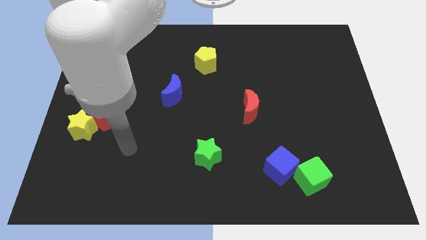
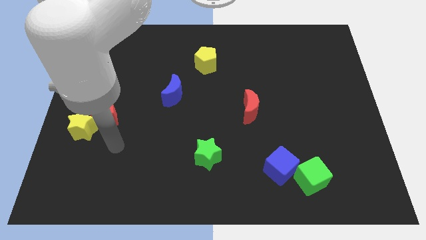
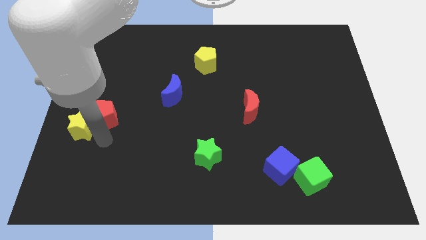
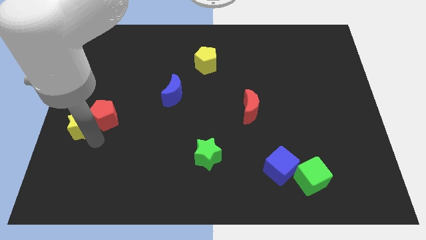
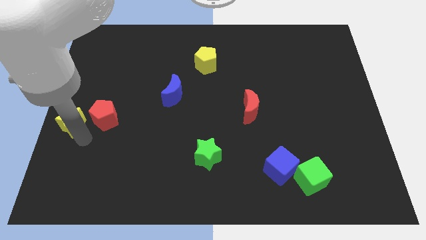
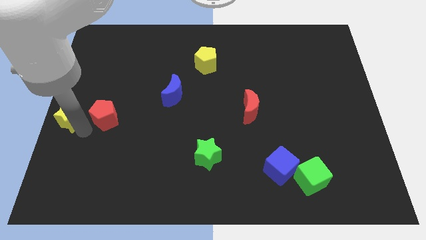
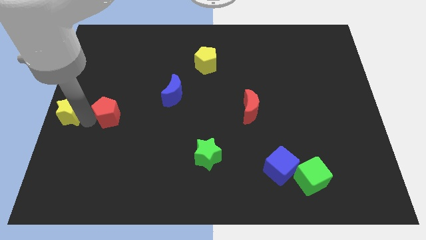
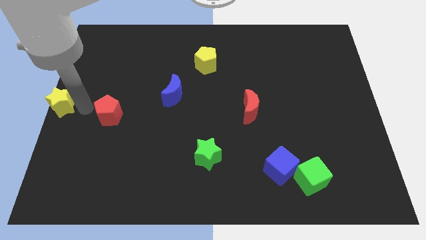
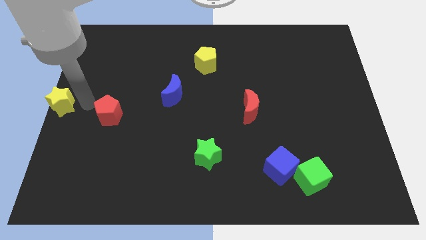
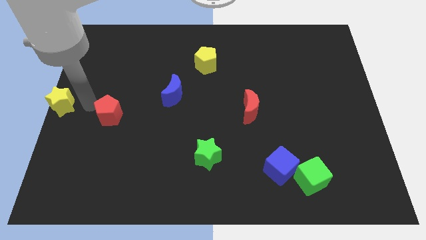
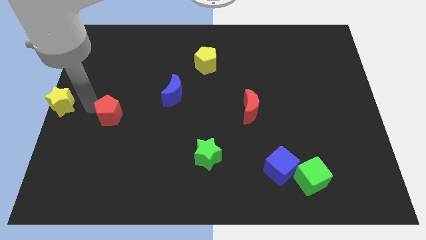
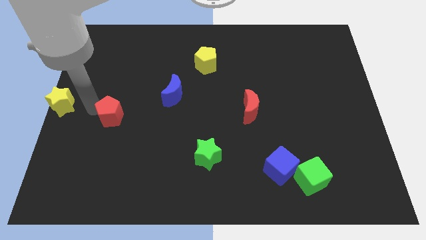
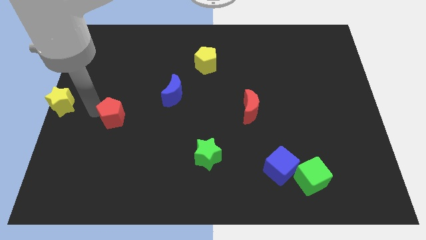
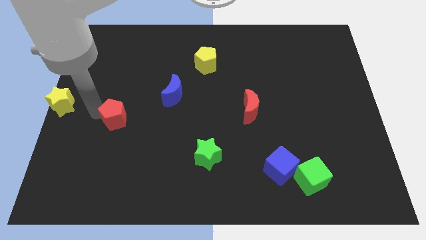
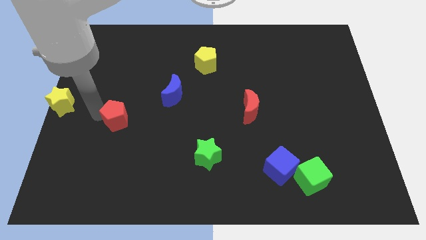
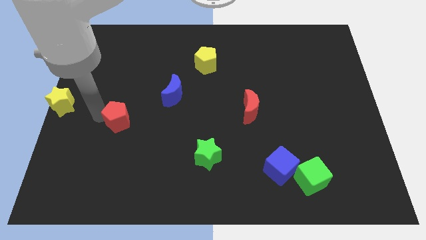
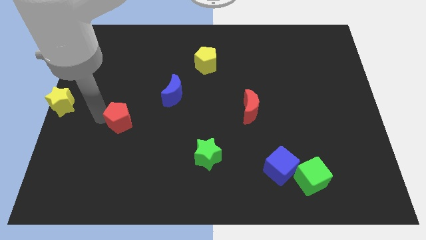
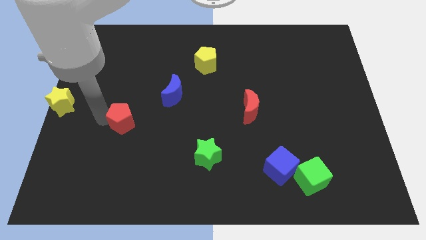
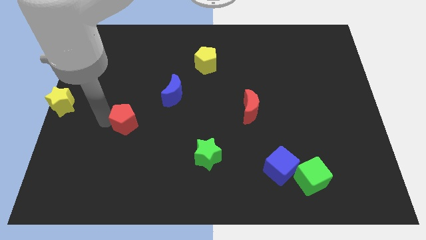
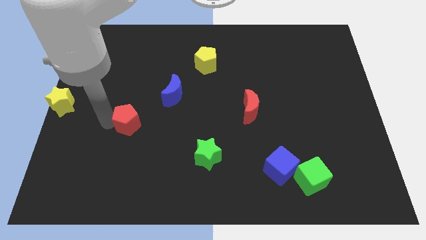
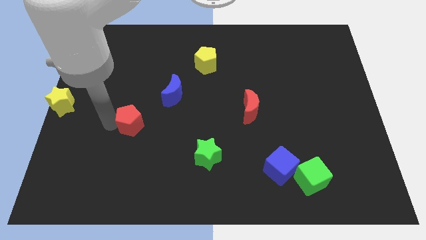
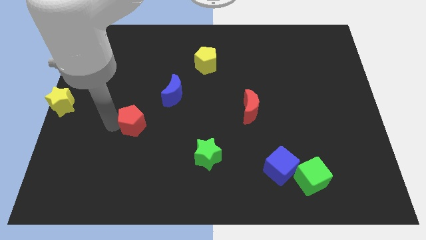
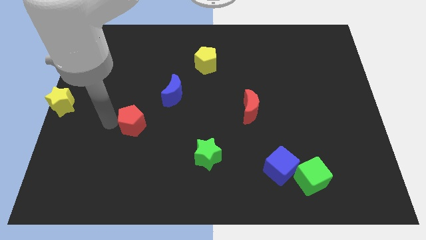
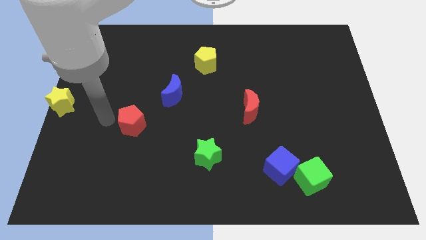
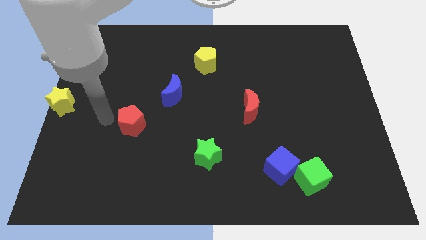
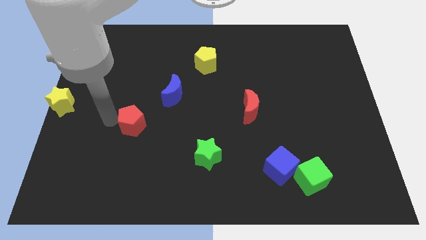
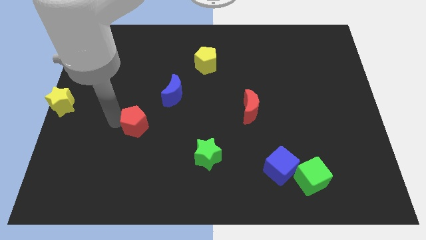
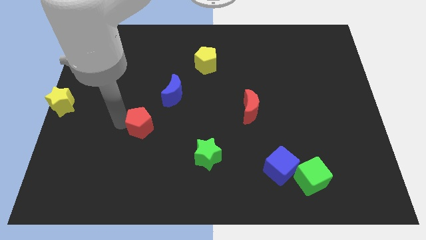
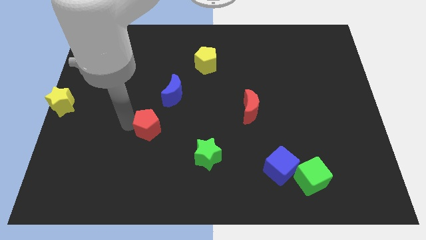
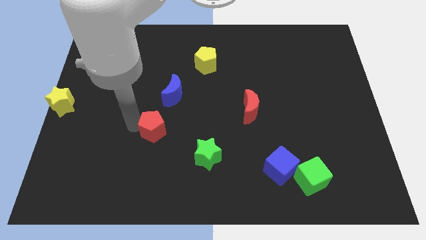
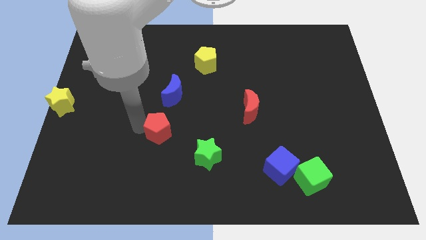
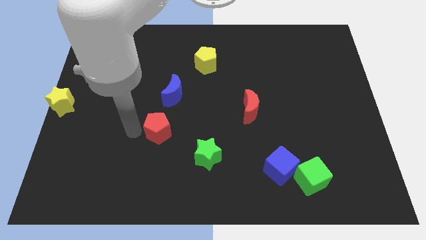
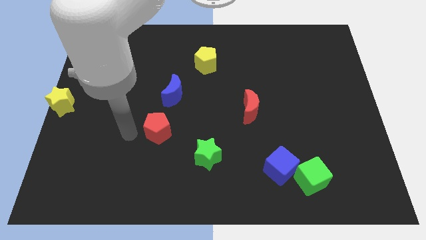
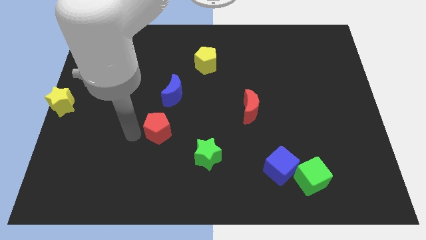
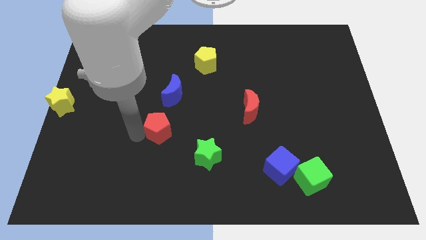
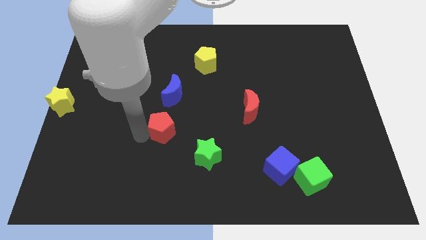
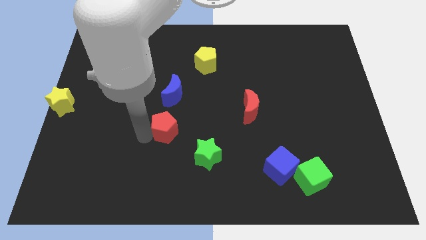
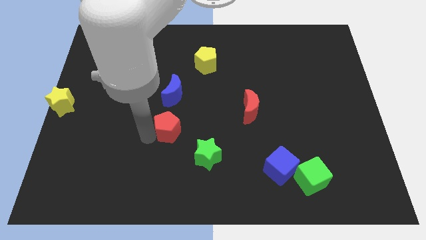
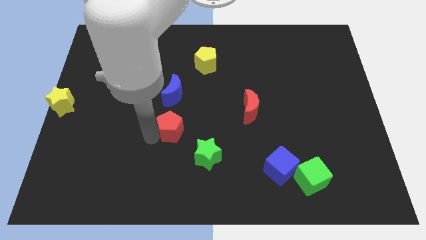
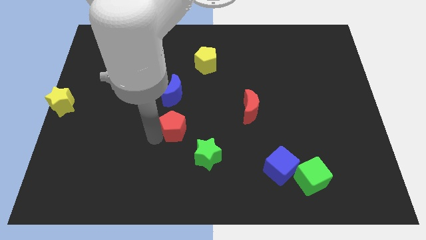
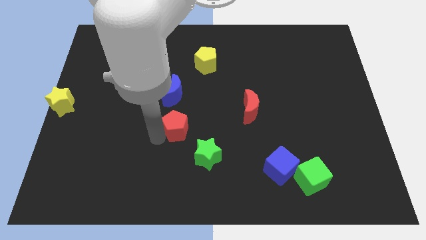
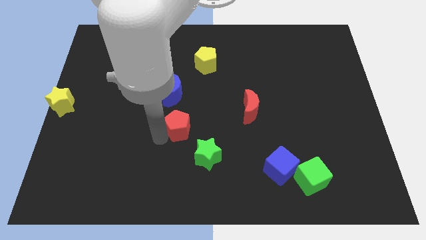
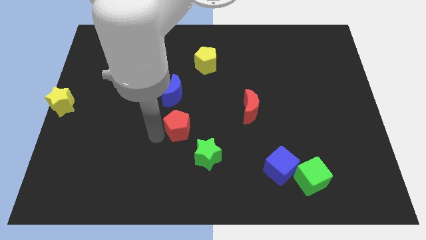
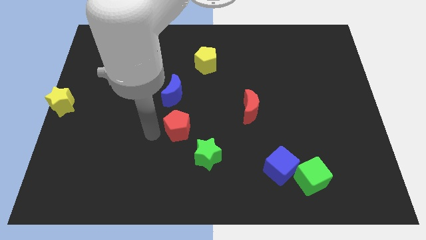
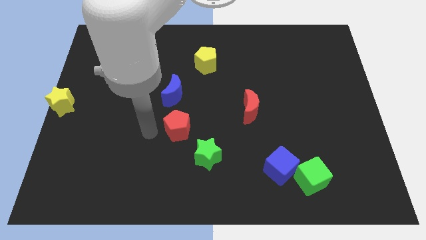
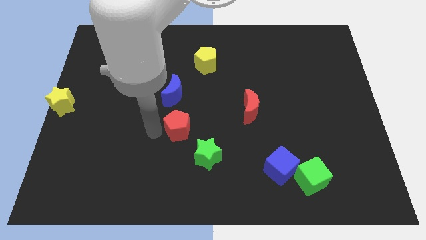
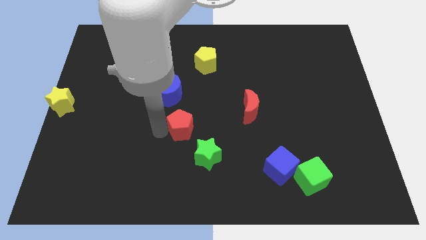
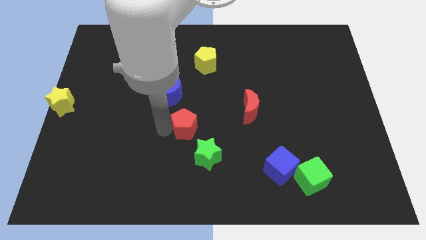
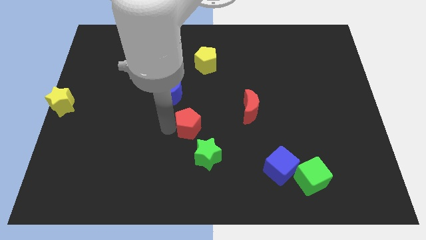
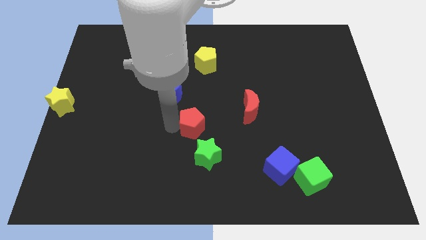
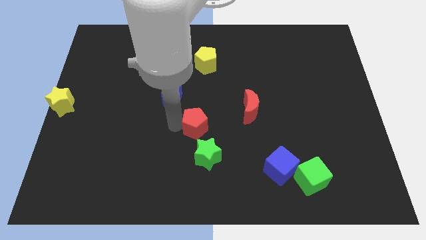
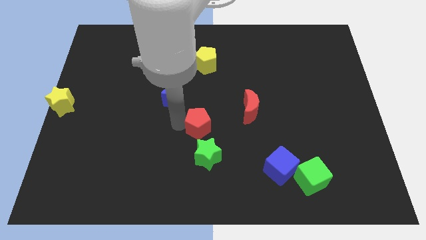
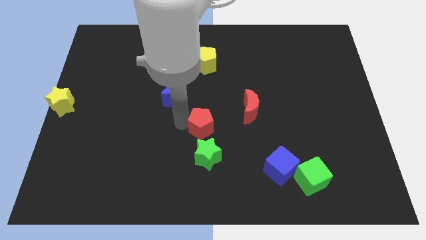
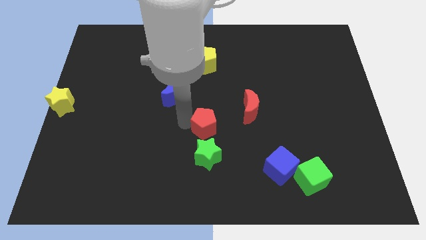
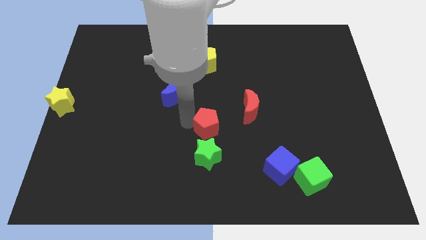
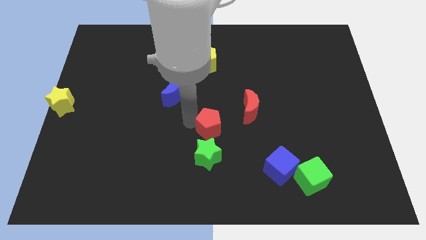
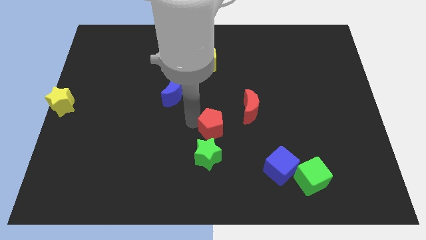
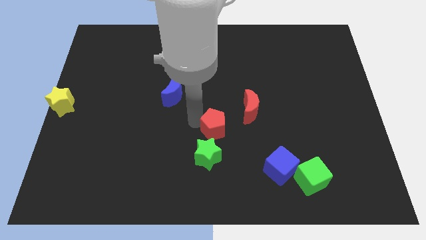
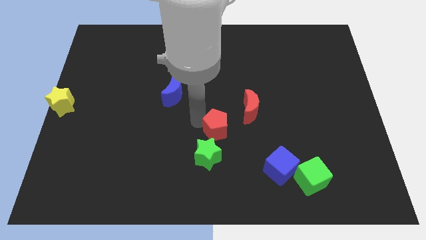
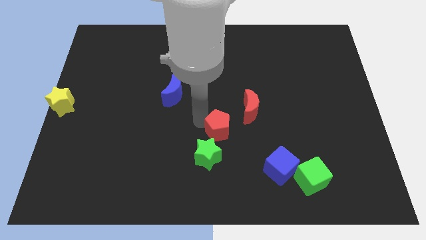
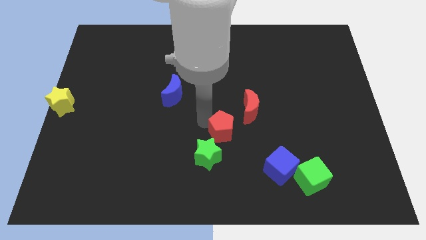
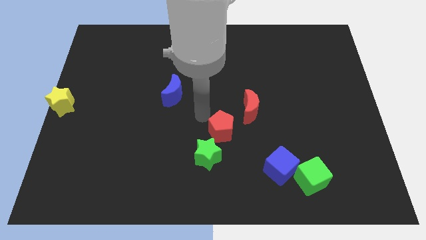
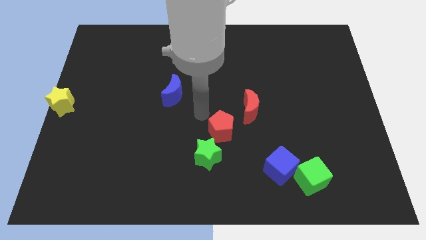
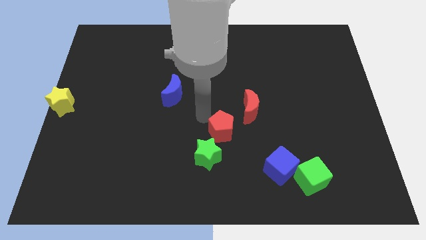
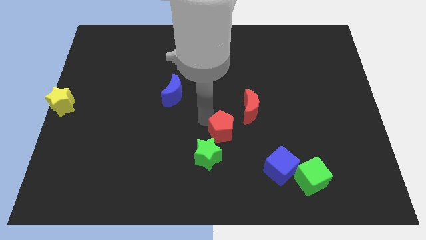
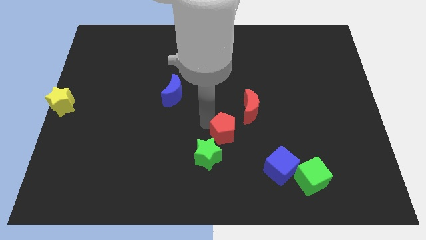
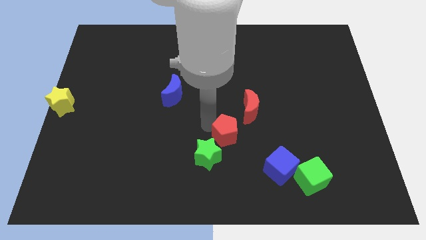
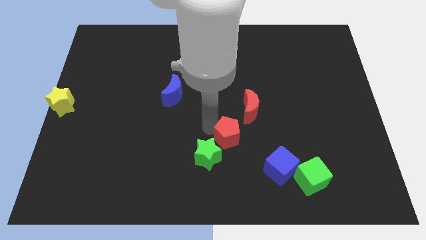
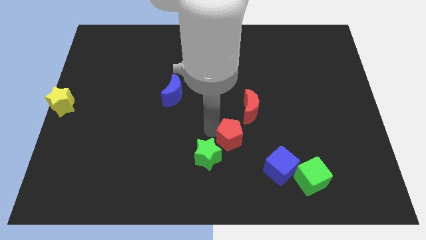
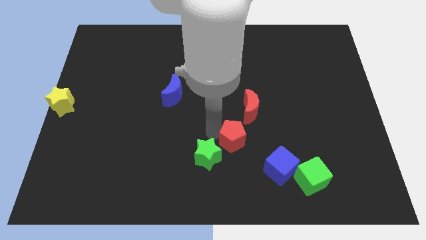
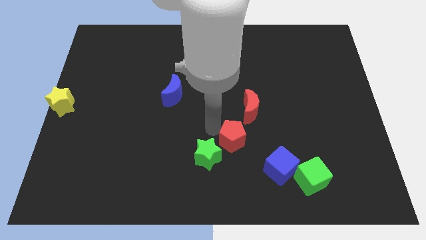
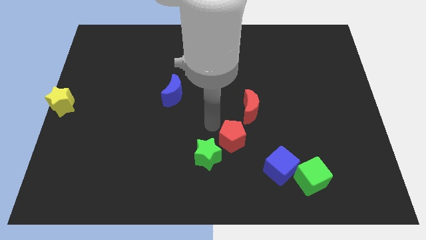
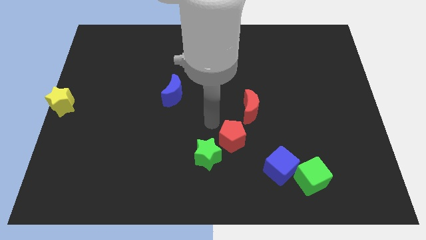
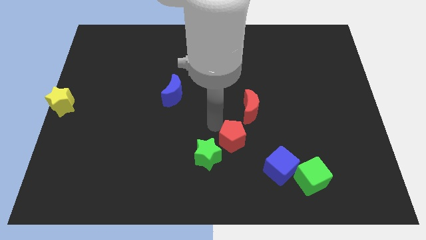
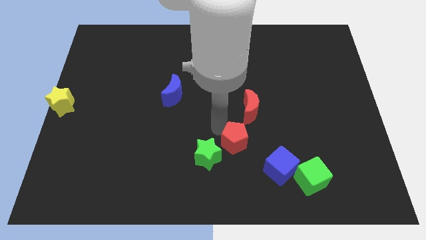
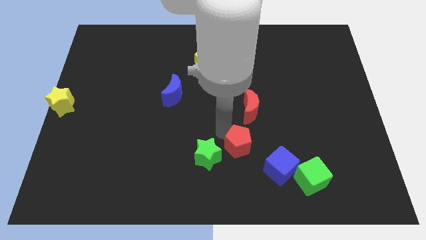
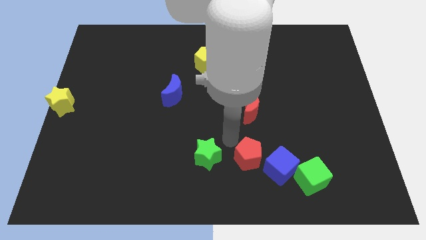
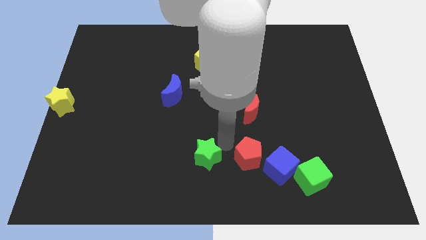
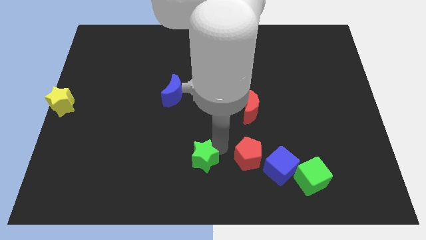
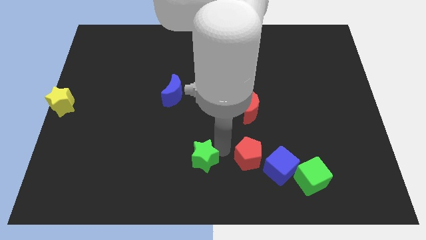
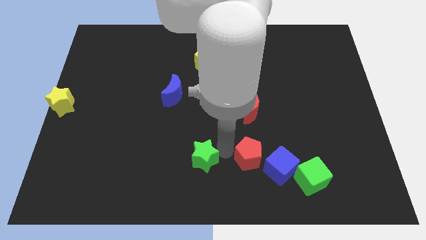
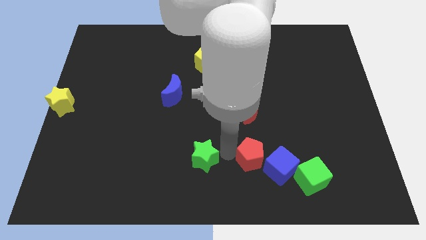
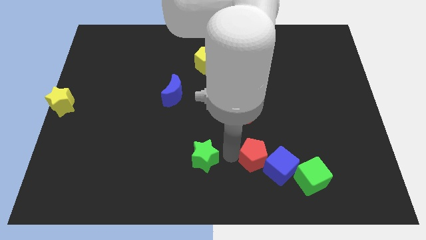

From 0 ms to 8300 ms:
move the red pentagon close to the blue cube
